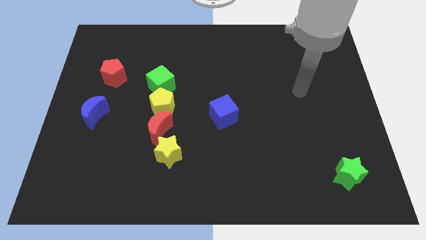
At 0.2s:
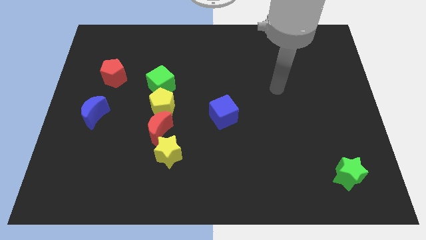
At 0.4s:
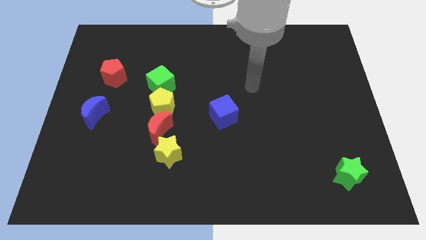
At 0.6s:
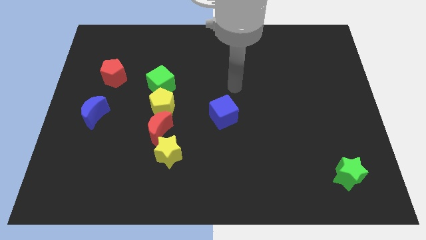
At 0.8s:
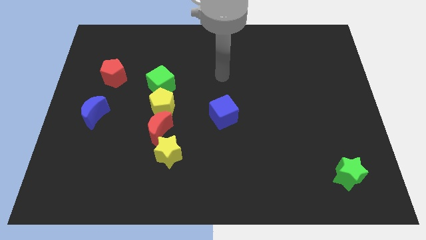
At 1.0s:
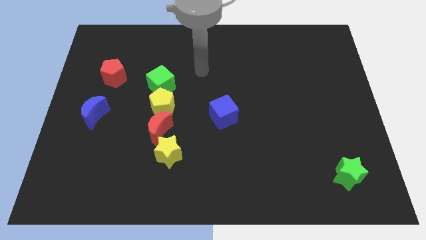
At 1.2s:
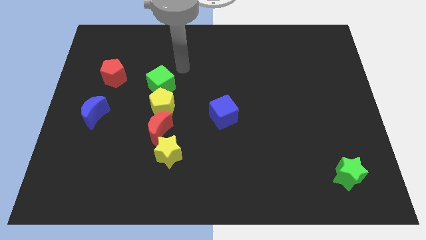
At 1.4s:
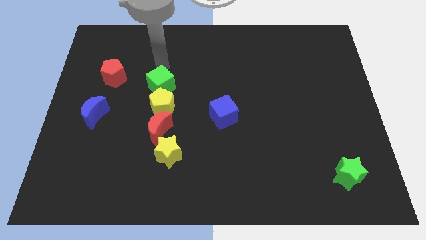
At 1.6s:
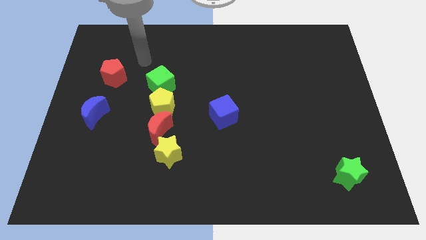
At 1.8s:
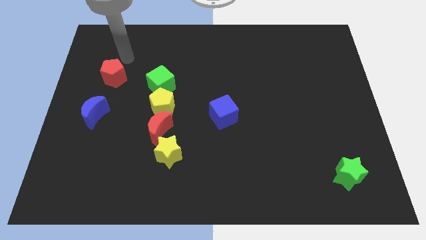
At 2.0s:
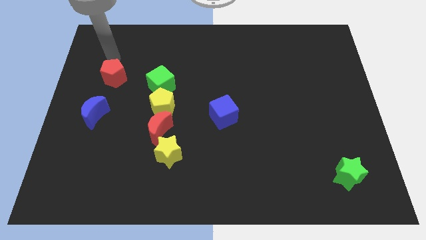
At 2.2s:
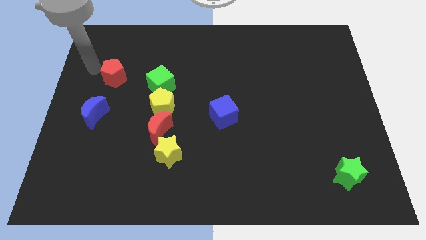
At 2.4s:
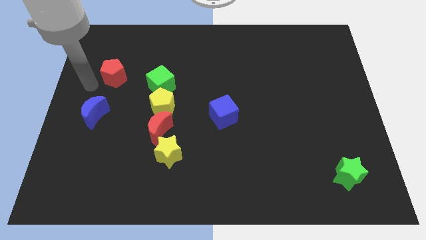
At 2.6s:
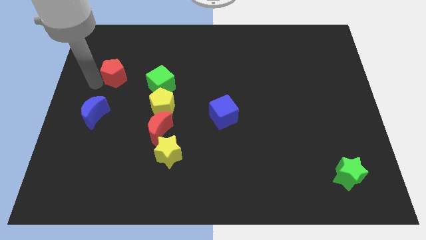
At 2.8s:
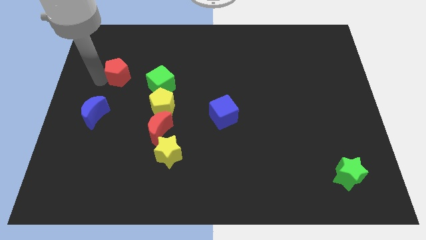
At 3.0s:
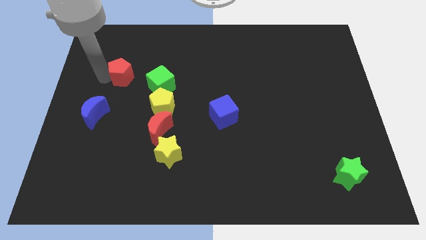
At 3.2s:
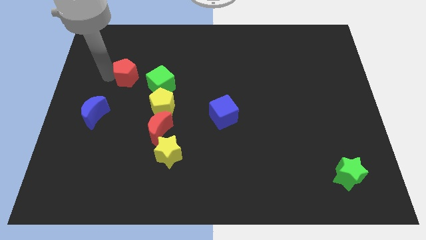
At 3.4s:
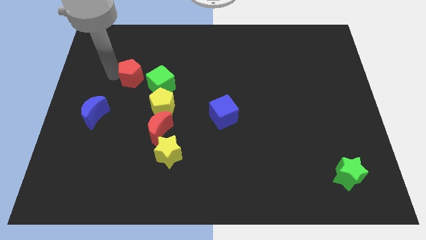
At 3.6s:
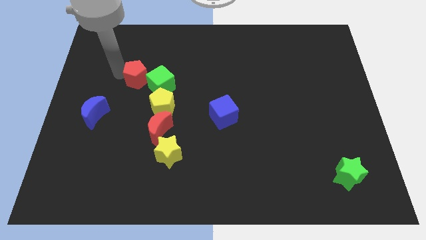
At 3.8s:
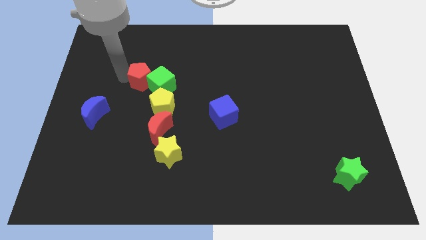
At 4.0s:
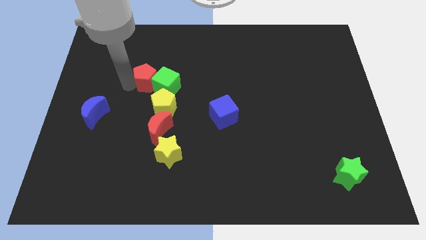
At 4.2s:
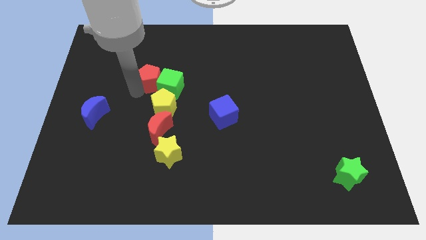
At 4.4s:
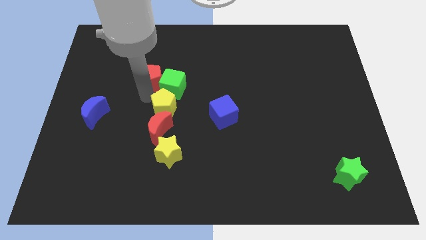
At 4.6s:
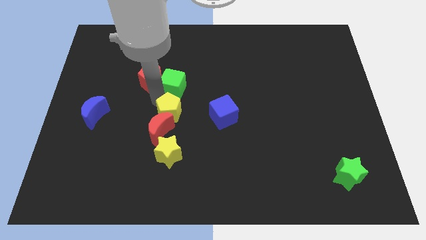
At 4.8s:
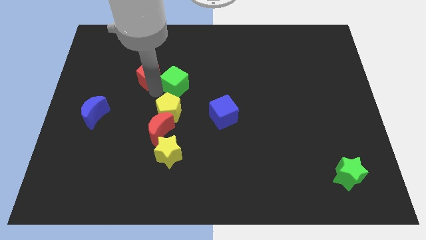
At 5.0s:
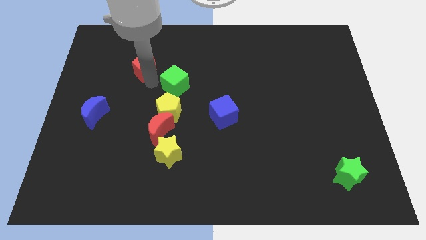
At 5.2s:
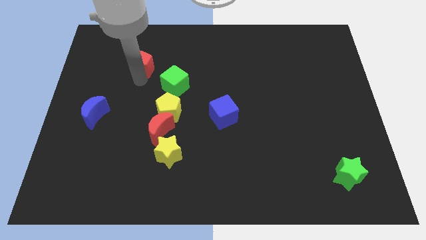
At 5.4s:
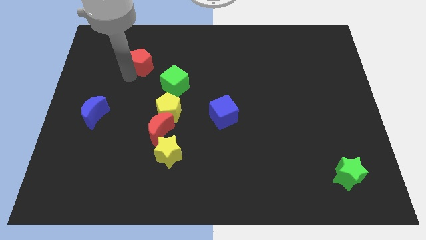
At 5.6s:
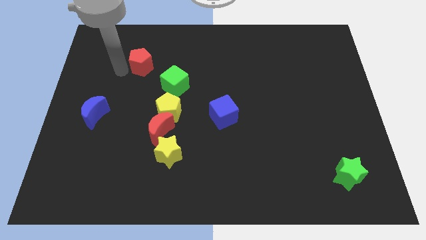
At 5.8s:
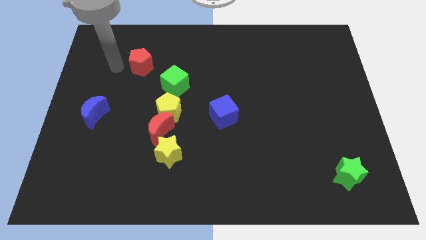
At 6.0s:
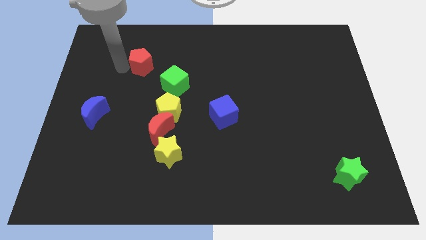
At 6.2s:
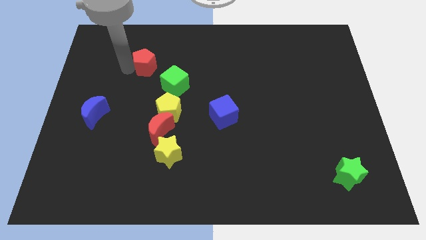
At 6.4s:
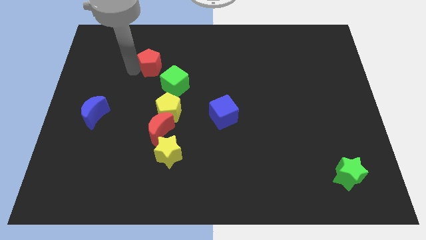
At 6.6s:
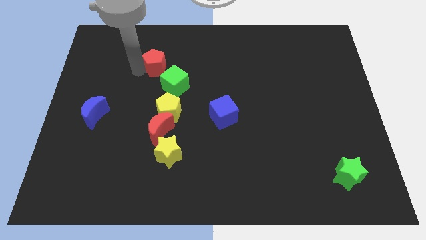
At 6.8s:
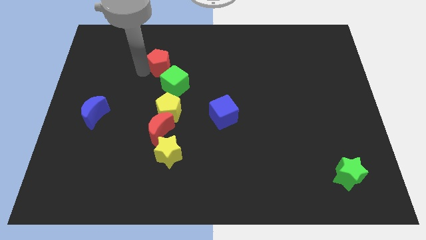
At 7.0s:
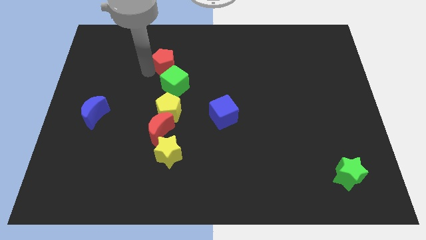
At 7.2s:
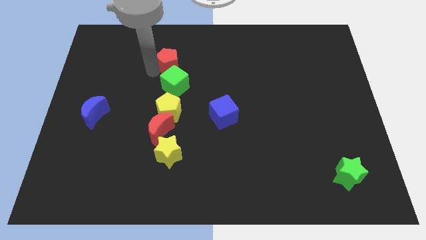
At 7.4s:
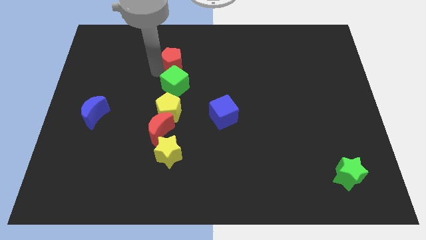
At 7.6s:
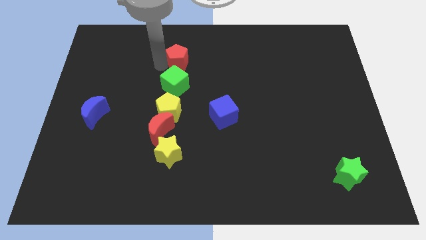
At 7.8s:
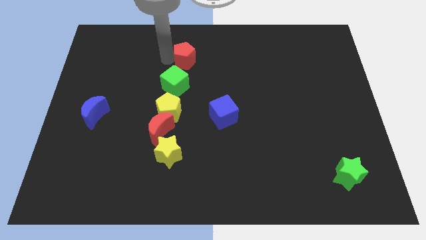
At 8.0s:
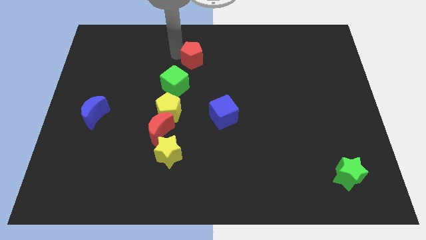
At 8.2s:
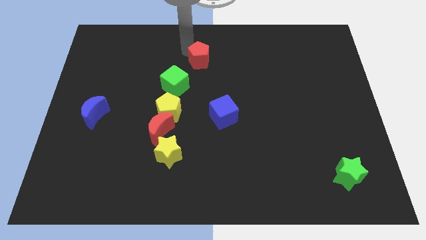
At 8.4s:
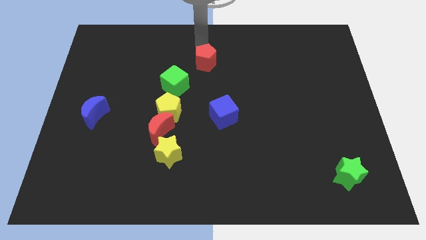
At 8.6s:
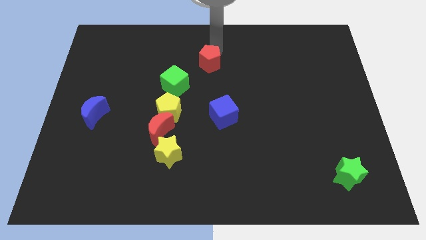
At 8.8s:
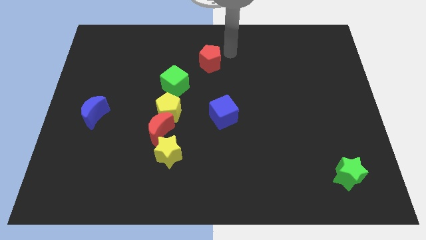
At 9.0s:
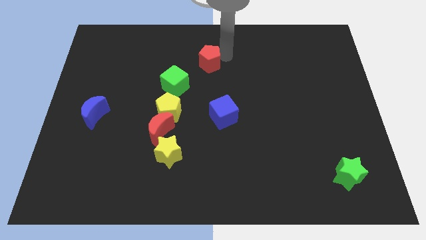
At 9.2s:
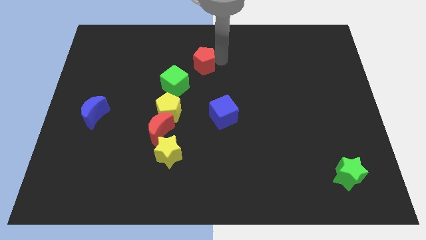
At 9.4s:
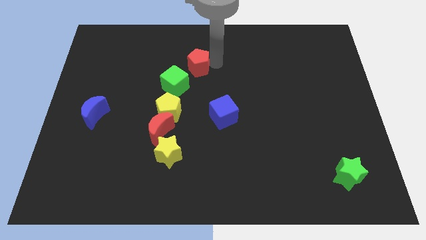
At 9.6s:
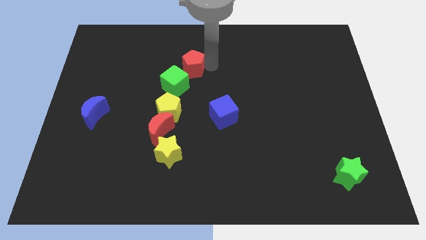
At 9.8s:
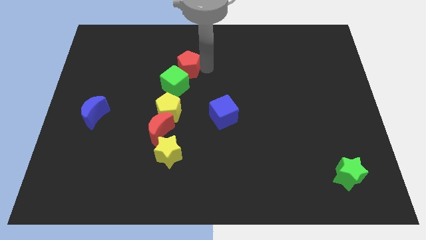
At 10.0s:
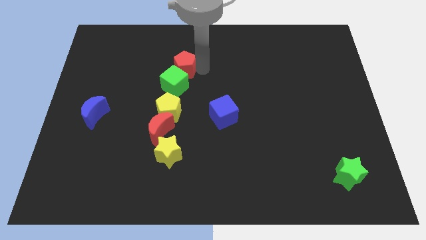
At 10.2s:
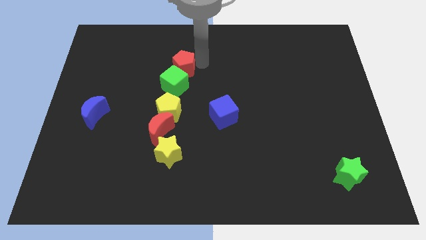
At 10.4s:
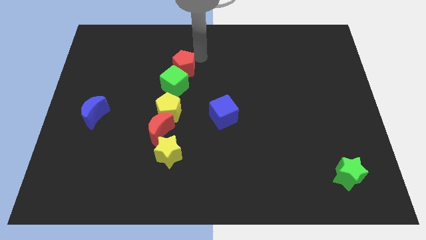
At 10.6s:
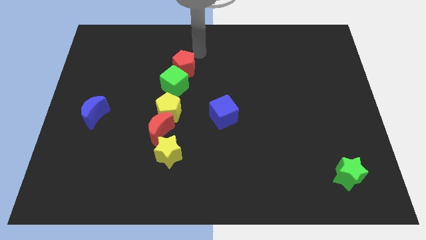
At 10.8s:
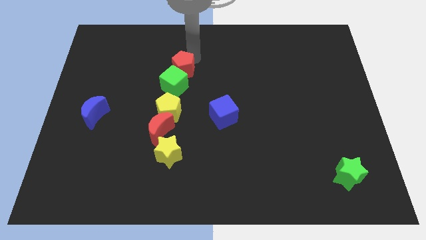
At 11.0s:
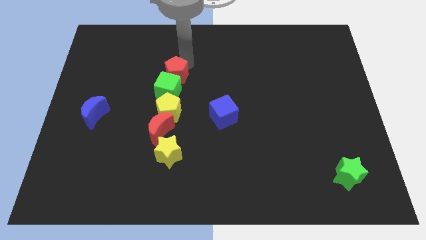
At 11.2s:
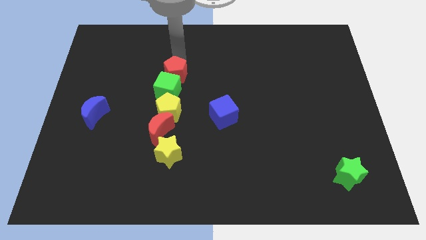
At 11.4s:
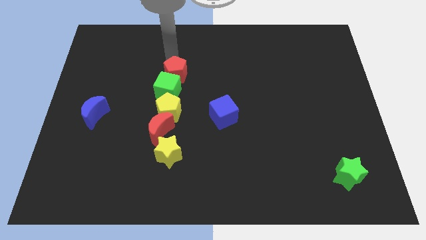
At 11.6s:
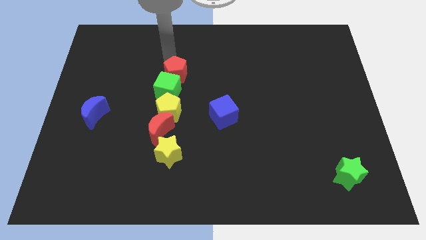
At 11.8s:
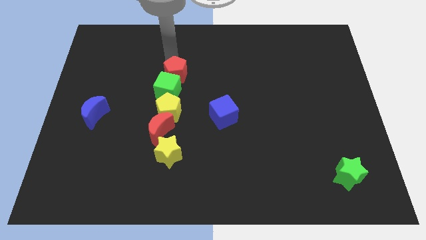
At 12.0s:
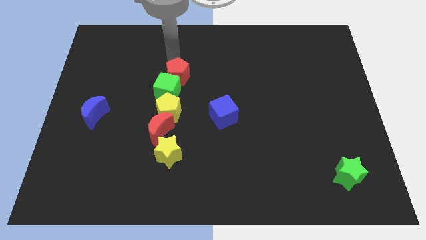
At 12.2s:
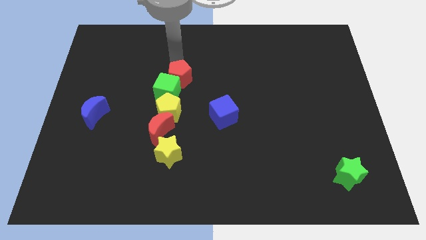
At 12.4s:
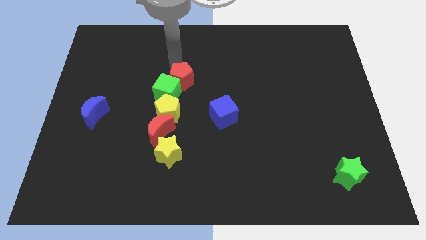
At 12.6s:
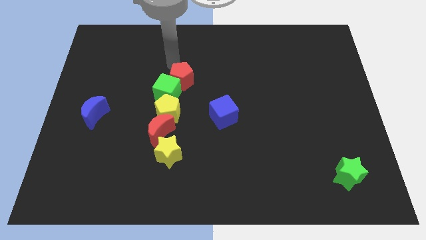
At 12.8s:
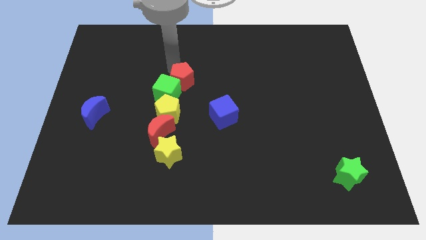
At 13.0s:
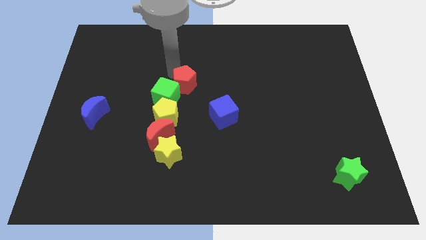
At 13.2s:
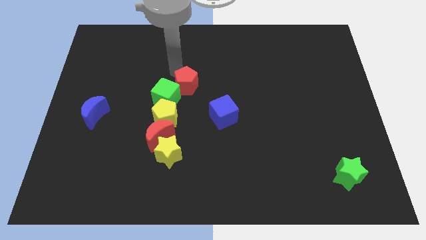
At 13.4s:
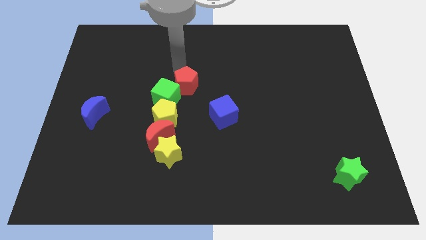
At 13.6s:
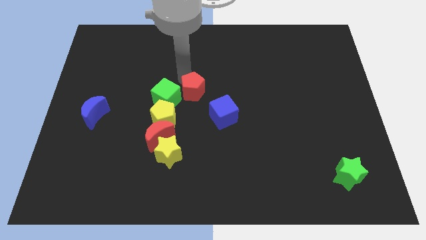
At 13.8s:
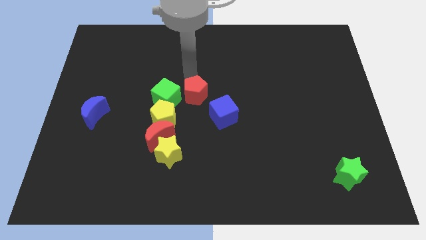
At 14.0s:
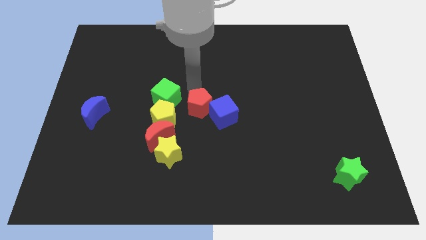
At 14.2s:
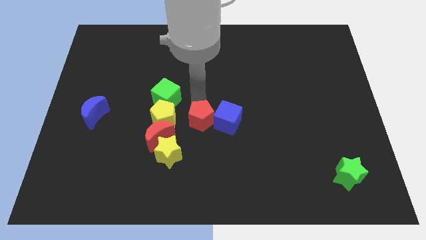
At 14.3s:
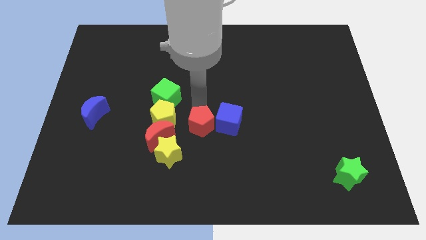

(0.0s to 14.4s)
push the red pentagon just right of the red moon
